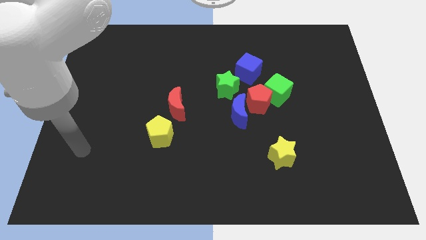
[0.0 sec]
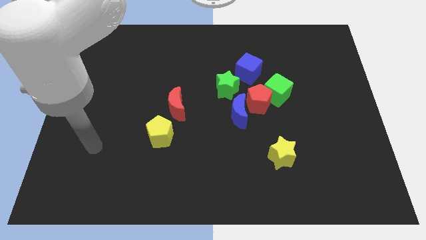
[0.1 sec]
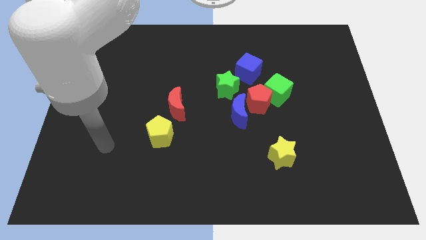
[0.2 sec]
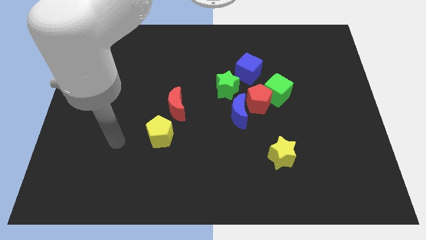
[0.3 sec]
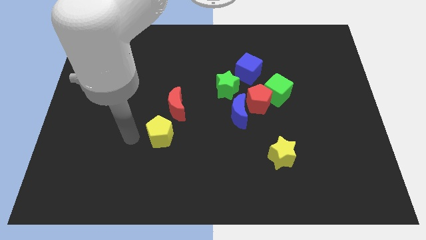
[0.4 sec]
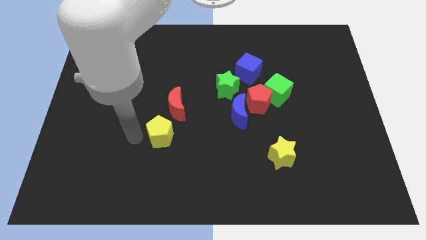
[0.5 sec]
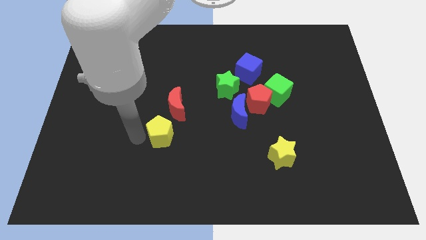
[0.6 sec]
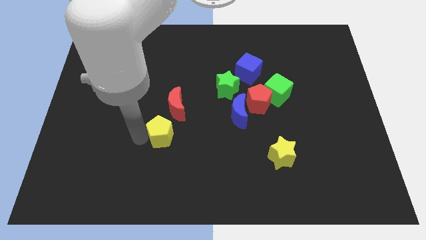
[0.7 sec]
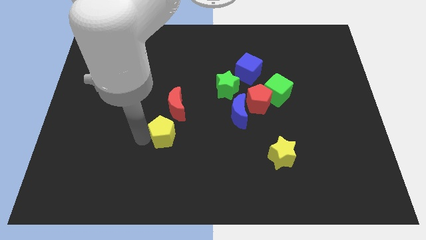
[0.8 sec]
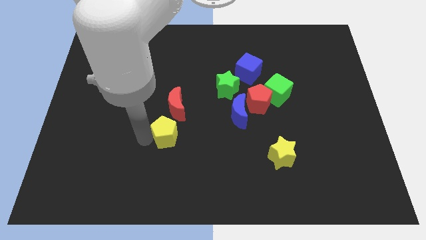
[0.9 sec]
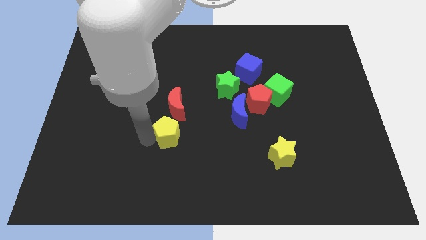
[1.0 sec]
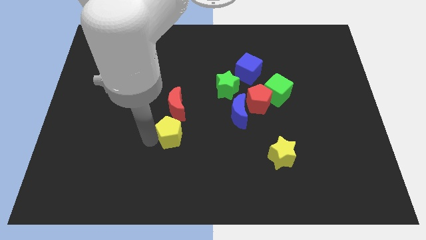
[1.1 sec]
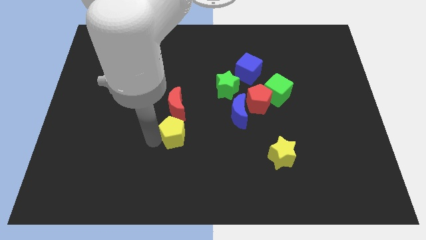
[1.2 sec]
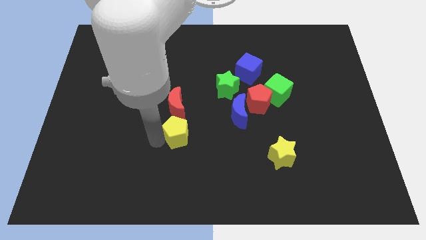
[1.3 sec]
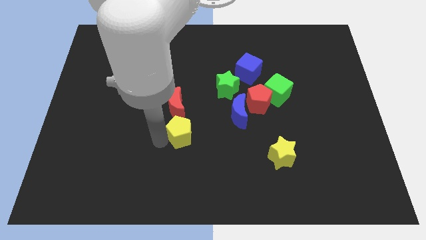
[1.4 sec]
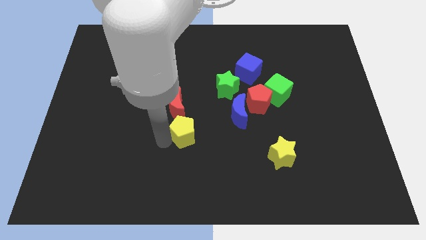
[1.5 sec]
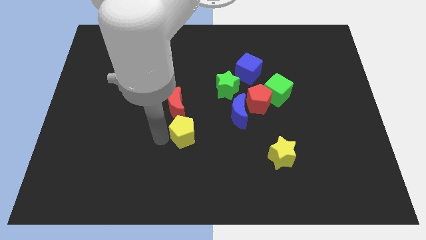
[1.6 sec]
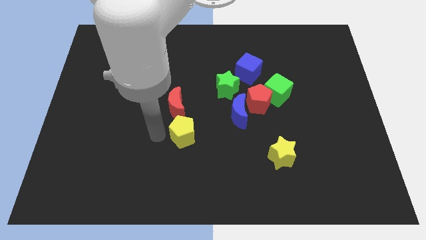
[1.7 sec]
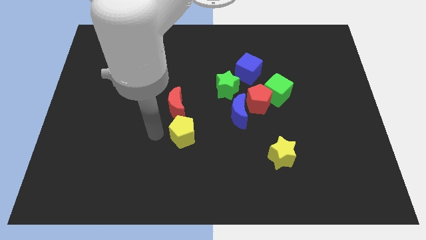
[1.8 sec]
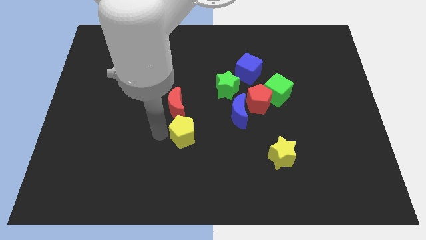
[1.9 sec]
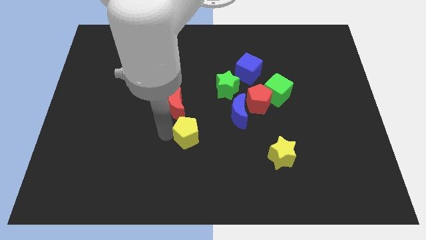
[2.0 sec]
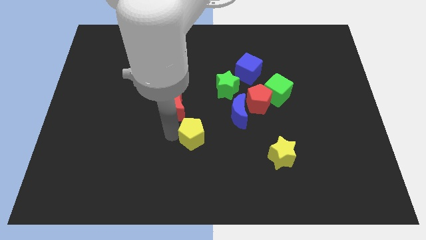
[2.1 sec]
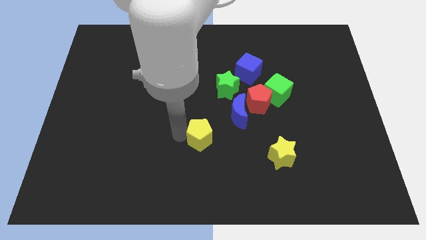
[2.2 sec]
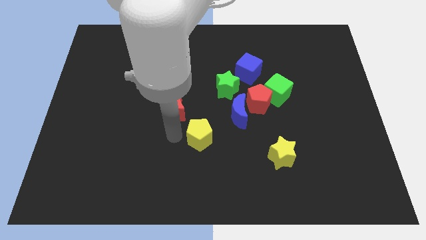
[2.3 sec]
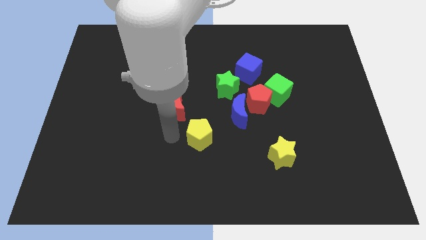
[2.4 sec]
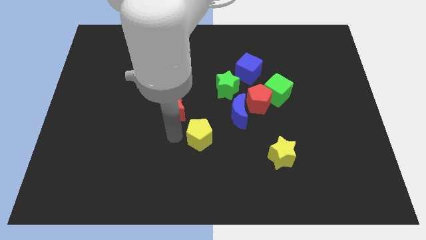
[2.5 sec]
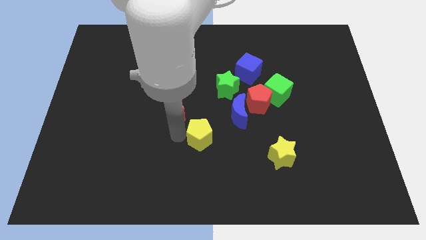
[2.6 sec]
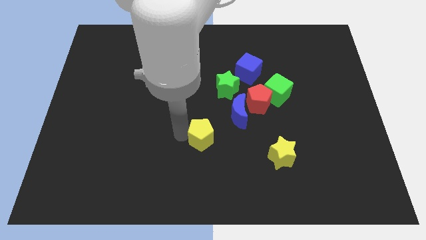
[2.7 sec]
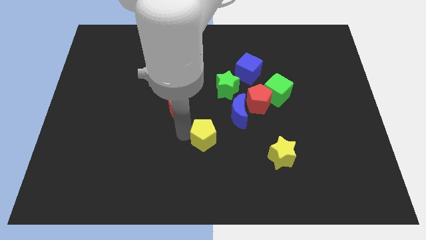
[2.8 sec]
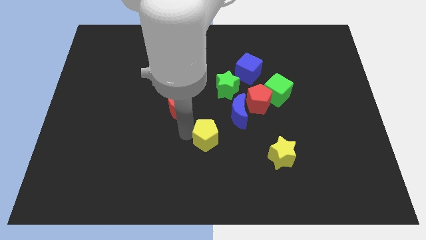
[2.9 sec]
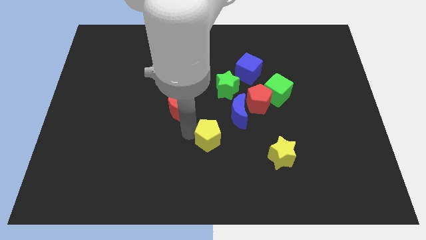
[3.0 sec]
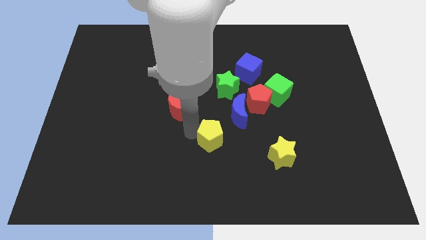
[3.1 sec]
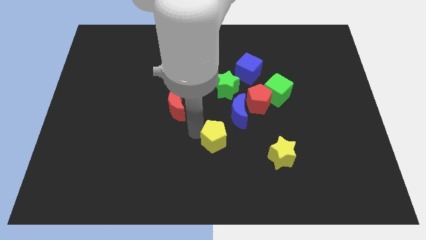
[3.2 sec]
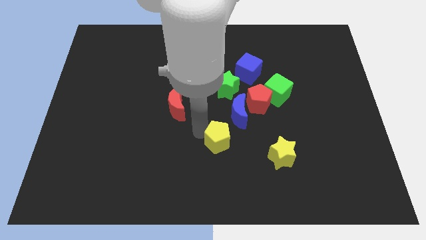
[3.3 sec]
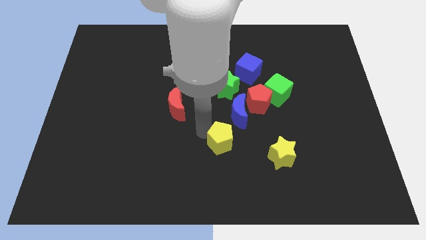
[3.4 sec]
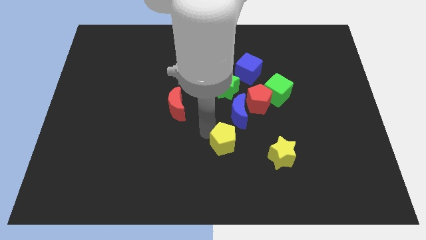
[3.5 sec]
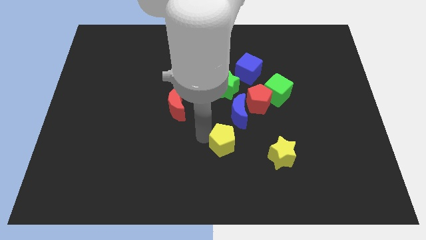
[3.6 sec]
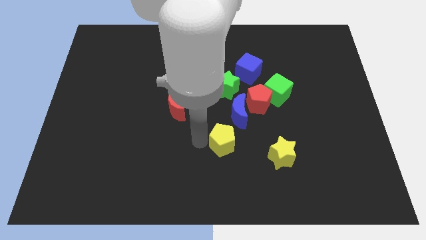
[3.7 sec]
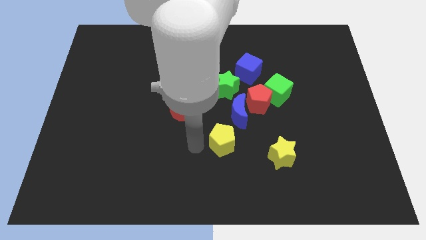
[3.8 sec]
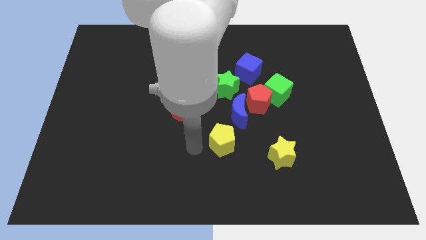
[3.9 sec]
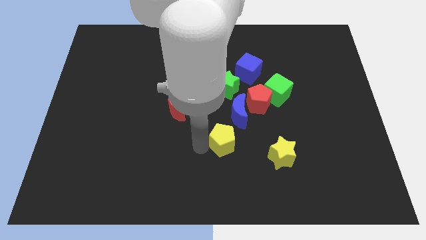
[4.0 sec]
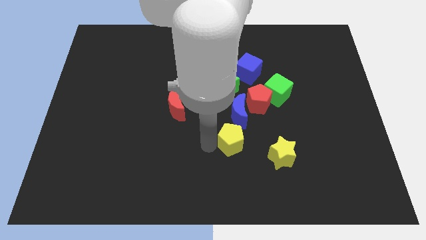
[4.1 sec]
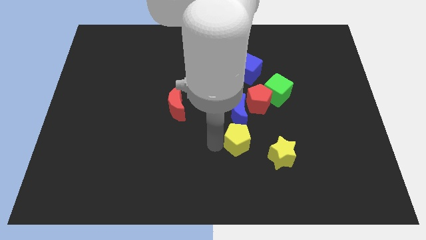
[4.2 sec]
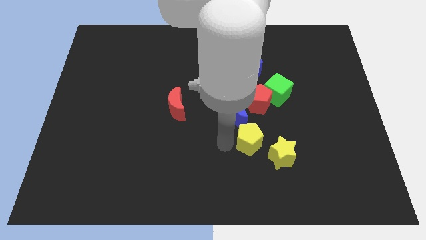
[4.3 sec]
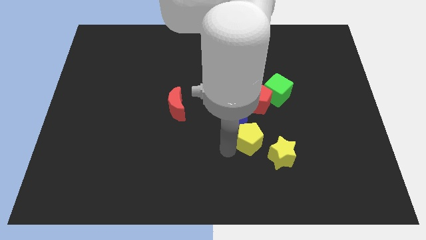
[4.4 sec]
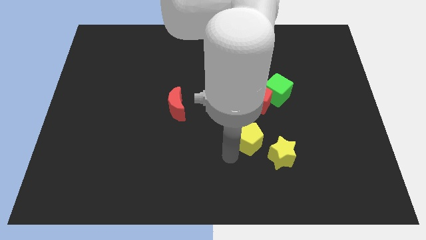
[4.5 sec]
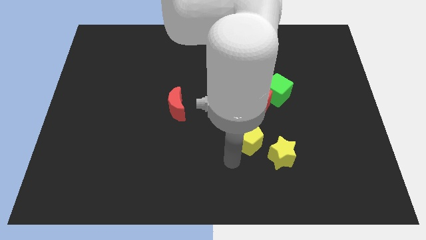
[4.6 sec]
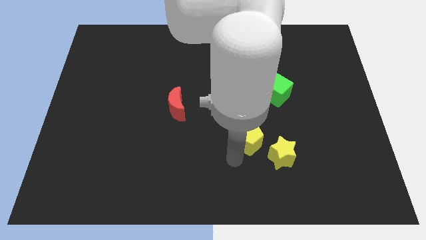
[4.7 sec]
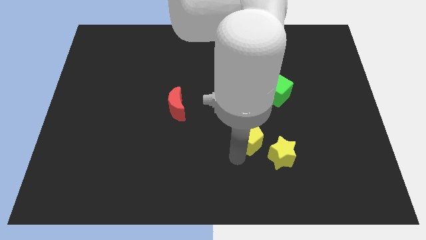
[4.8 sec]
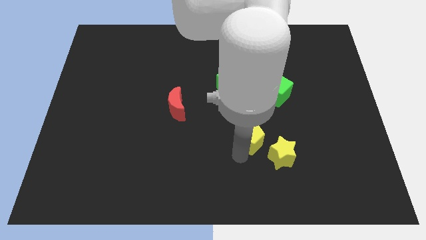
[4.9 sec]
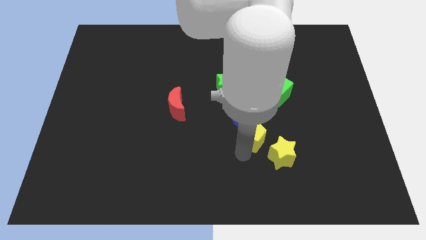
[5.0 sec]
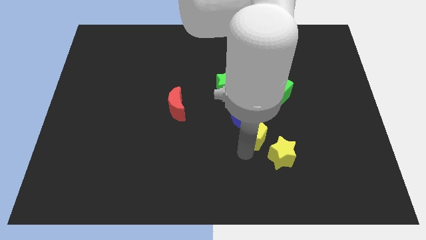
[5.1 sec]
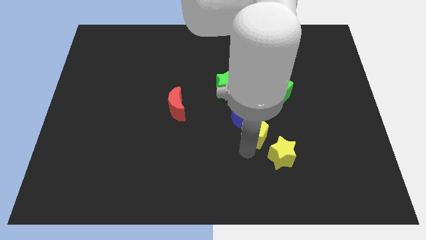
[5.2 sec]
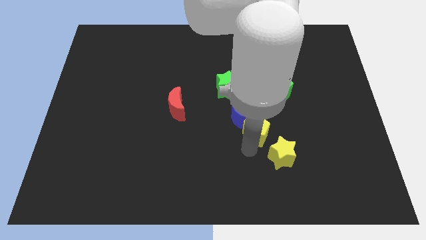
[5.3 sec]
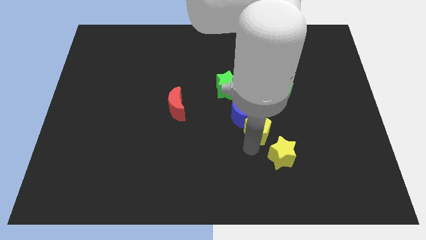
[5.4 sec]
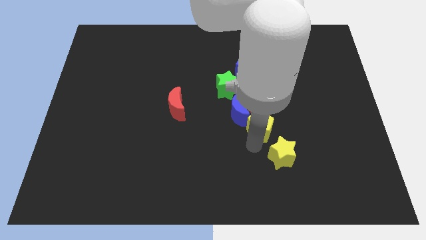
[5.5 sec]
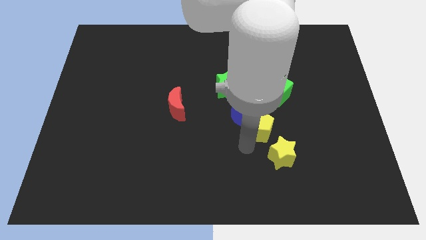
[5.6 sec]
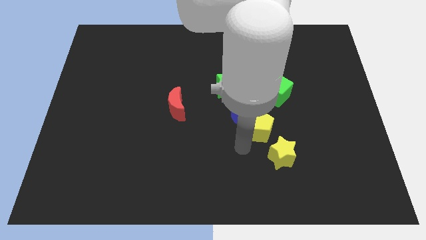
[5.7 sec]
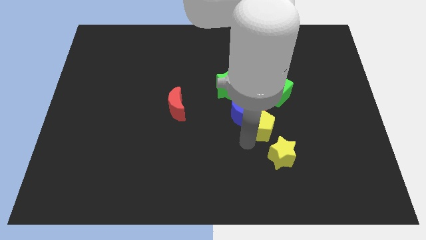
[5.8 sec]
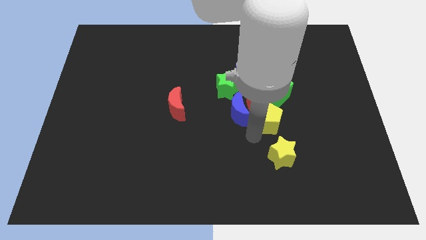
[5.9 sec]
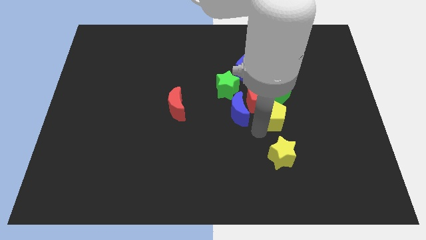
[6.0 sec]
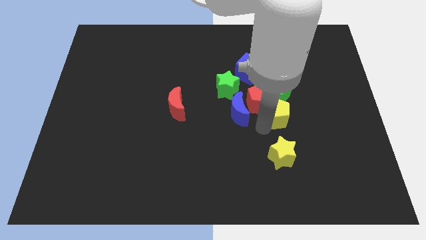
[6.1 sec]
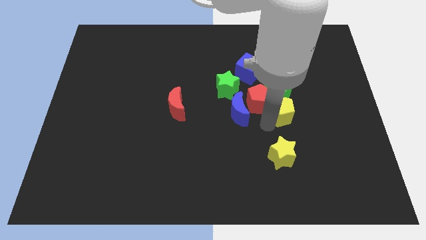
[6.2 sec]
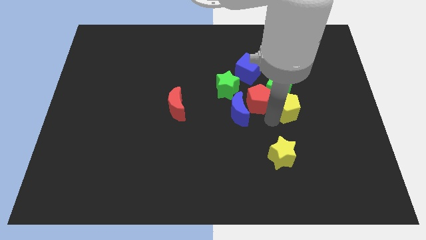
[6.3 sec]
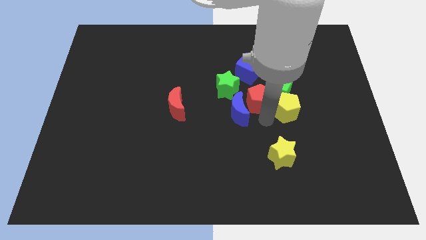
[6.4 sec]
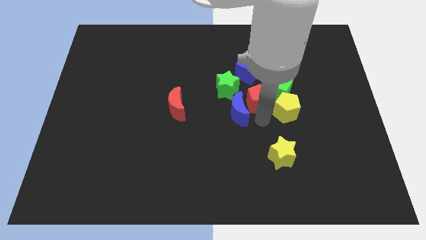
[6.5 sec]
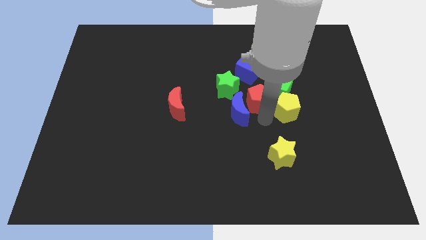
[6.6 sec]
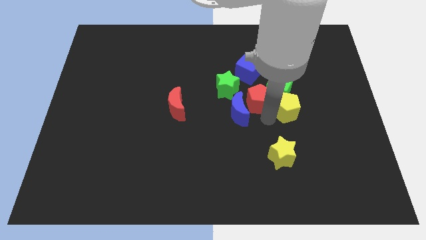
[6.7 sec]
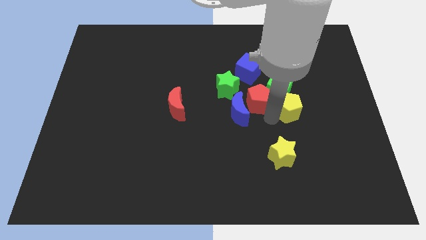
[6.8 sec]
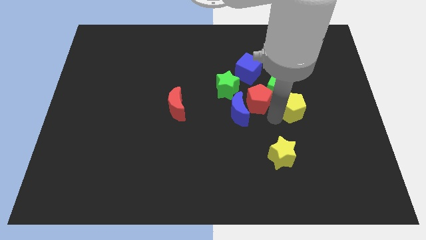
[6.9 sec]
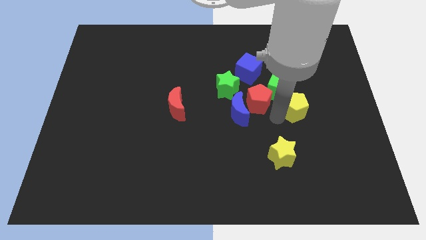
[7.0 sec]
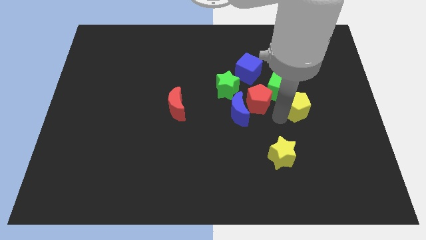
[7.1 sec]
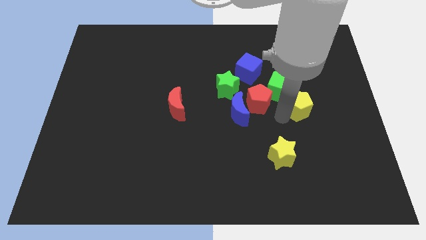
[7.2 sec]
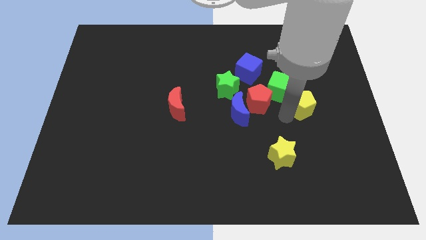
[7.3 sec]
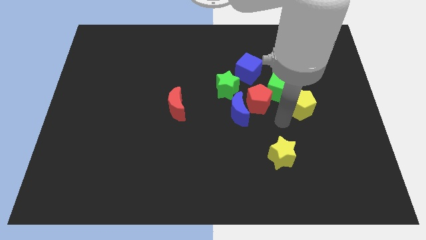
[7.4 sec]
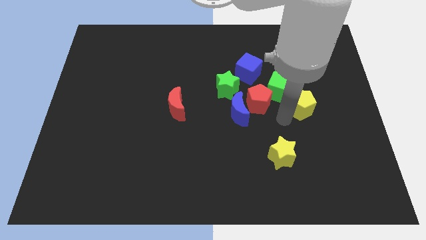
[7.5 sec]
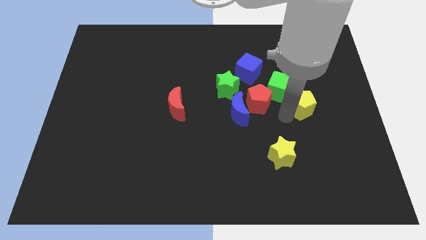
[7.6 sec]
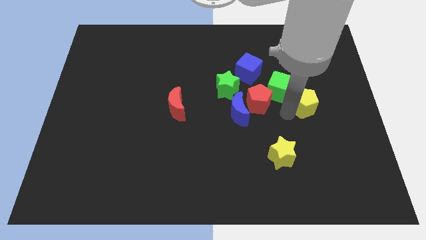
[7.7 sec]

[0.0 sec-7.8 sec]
move the yellow pentagon right of the green cube
